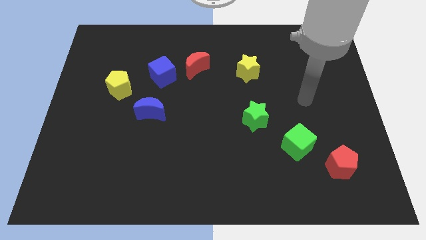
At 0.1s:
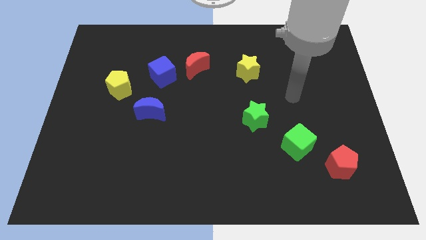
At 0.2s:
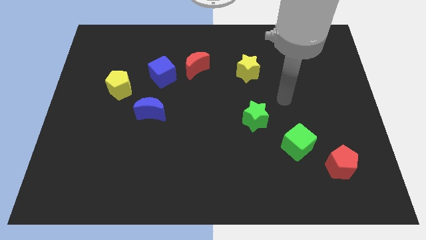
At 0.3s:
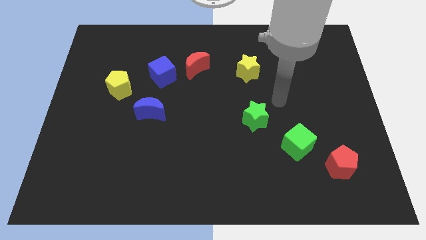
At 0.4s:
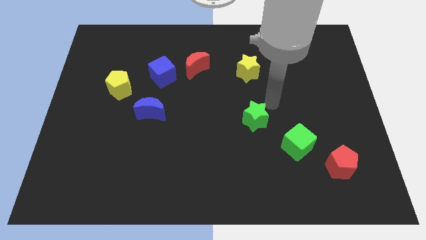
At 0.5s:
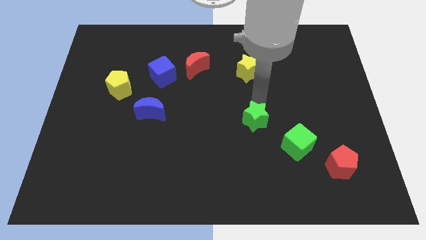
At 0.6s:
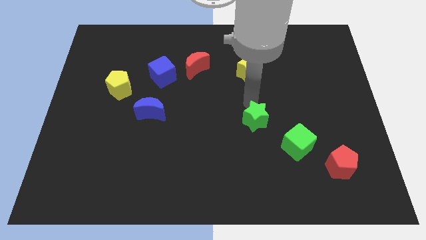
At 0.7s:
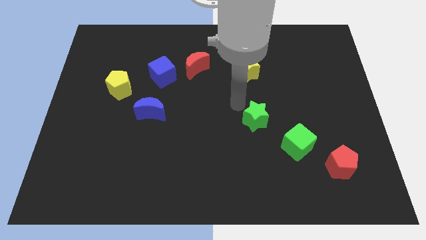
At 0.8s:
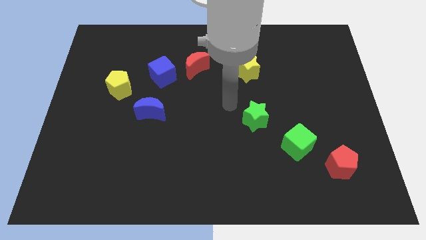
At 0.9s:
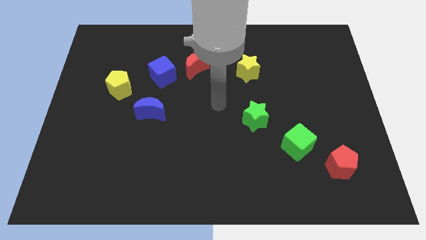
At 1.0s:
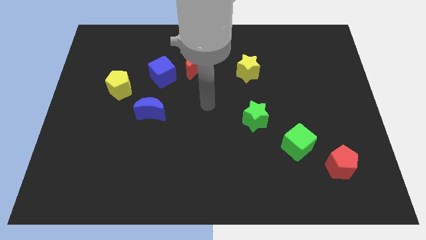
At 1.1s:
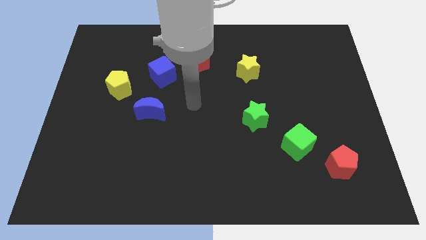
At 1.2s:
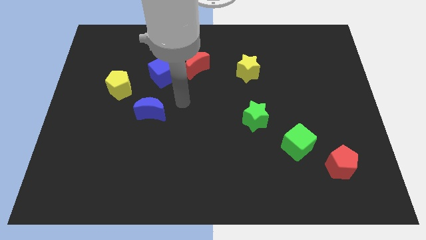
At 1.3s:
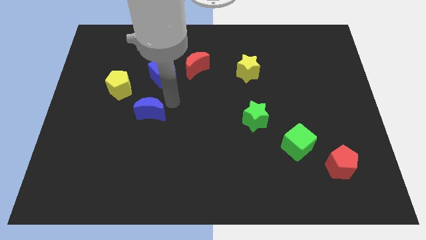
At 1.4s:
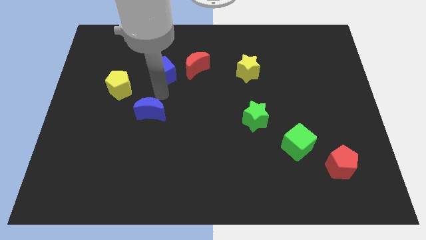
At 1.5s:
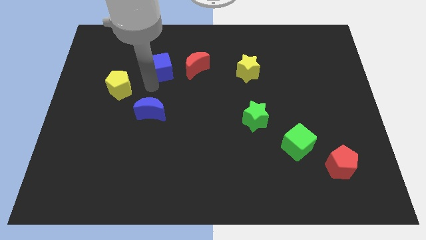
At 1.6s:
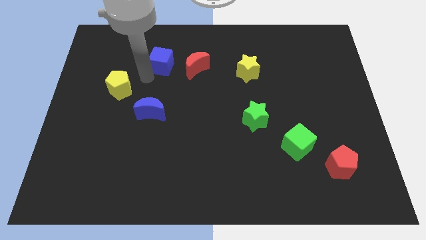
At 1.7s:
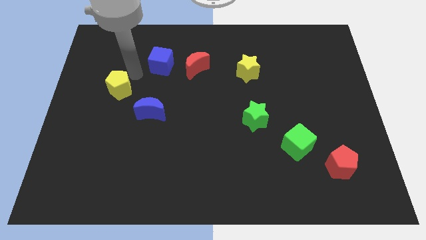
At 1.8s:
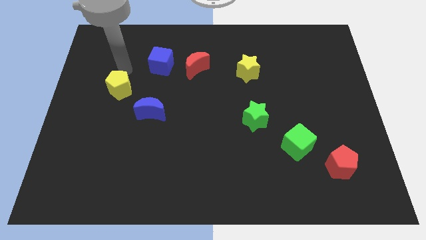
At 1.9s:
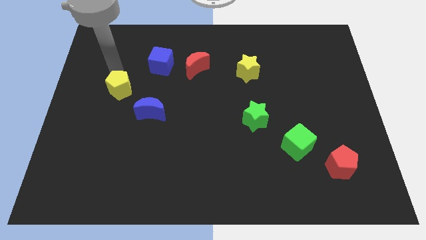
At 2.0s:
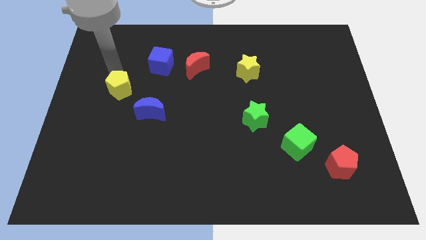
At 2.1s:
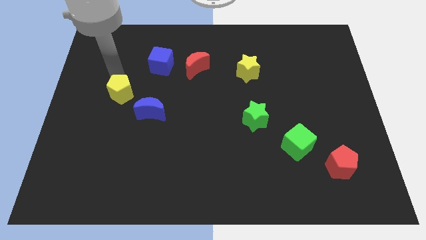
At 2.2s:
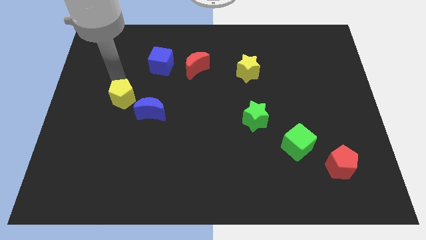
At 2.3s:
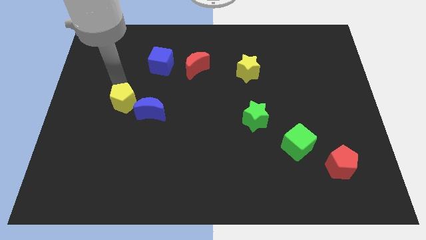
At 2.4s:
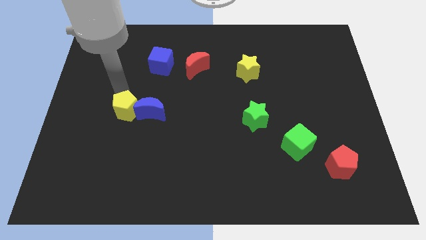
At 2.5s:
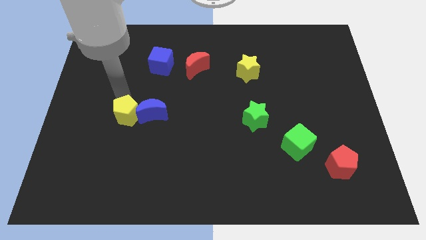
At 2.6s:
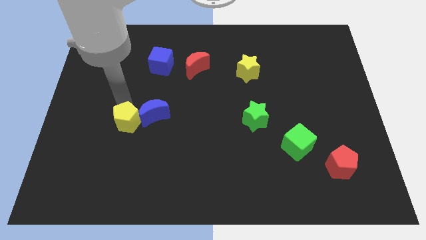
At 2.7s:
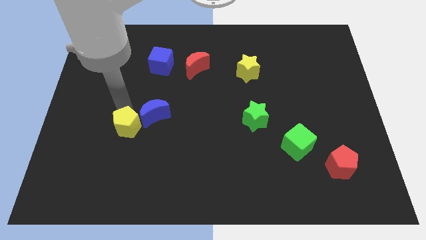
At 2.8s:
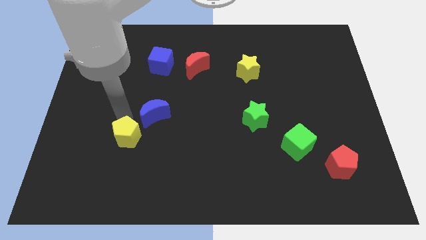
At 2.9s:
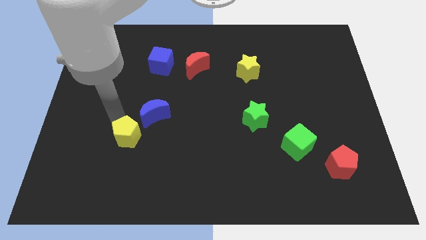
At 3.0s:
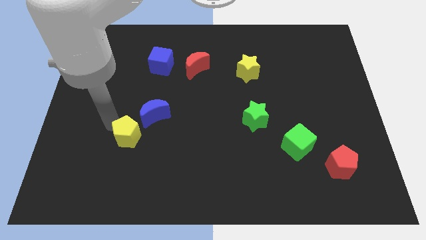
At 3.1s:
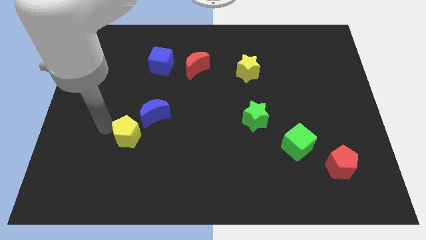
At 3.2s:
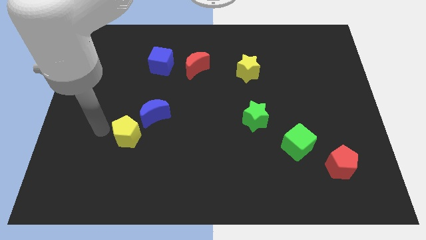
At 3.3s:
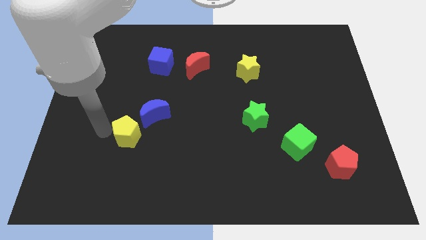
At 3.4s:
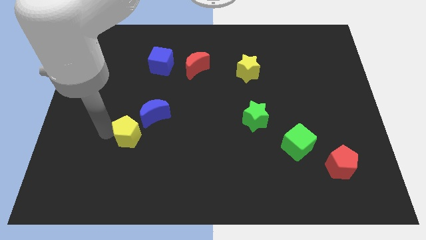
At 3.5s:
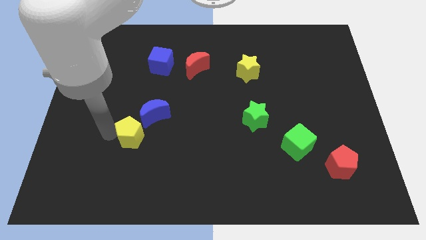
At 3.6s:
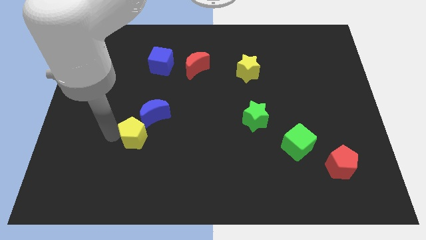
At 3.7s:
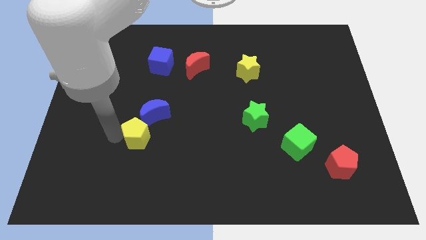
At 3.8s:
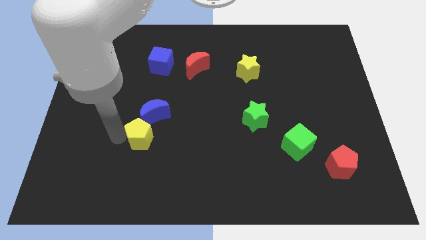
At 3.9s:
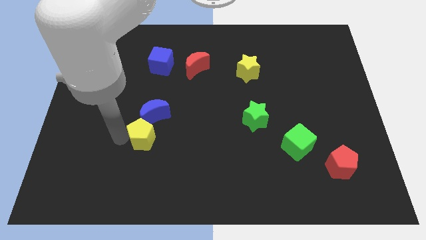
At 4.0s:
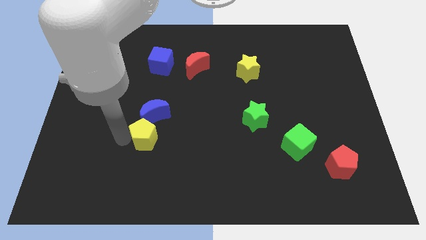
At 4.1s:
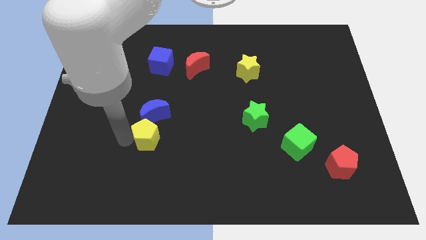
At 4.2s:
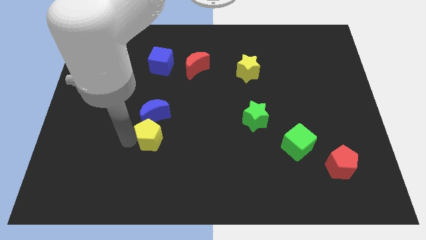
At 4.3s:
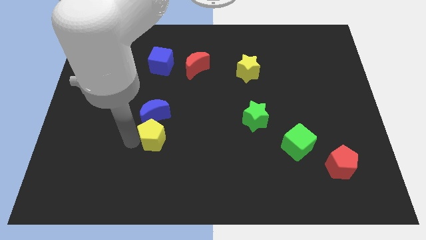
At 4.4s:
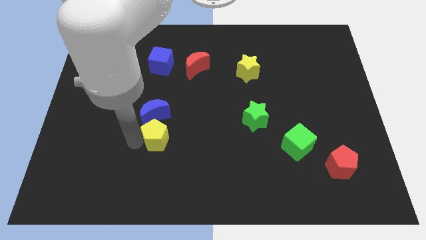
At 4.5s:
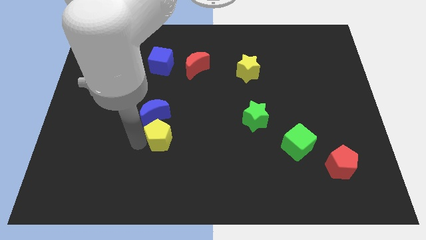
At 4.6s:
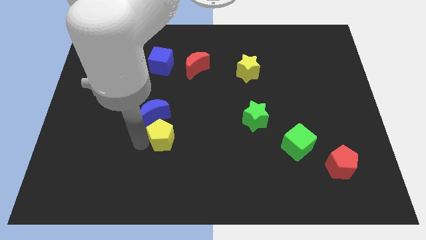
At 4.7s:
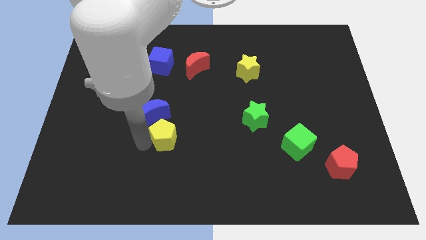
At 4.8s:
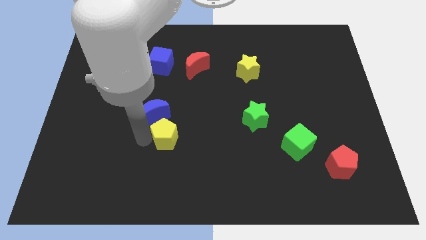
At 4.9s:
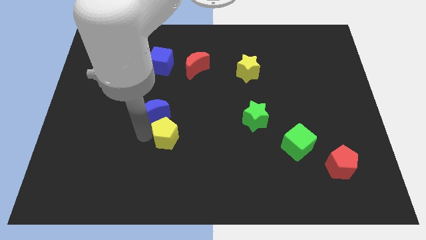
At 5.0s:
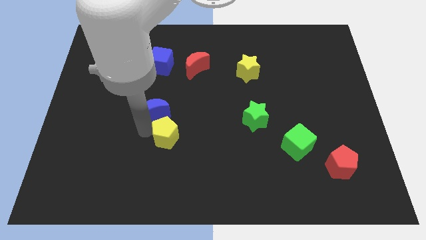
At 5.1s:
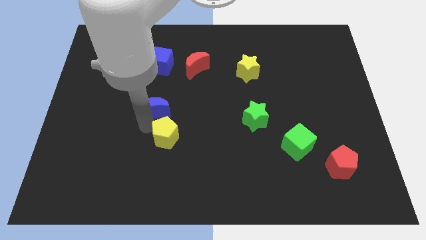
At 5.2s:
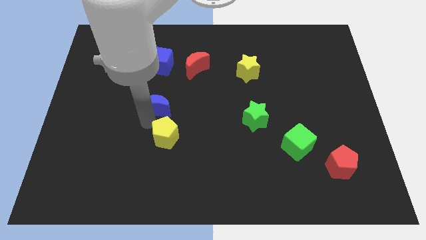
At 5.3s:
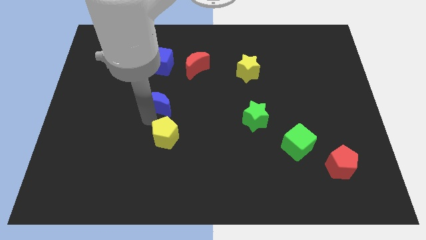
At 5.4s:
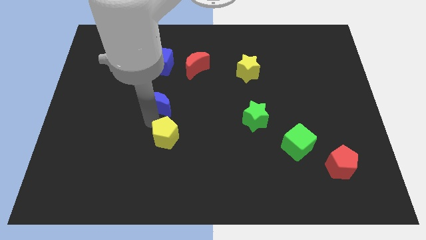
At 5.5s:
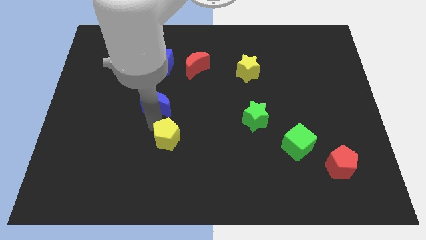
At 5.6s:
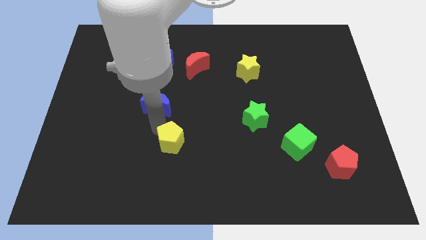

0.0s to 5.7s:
push the yellow pentagon down and to the right diagonally

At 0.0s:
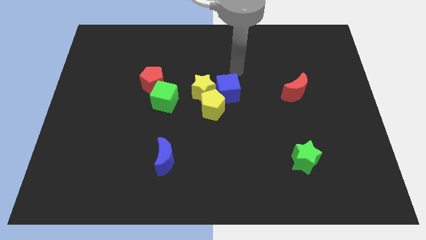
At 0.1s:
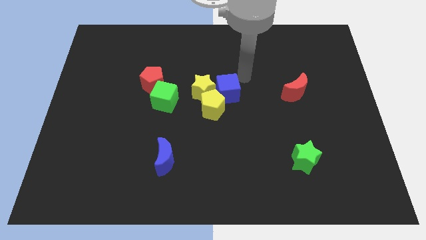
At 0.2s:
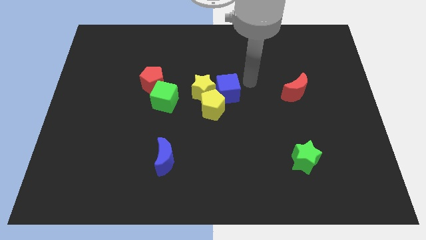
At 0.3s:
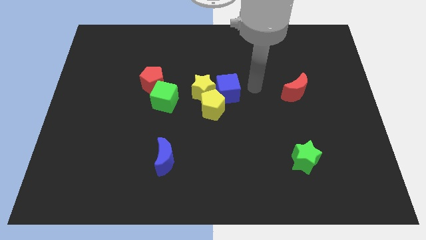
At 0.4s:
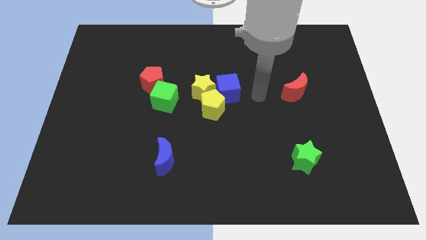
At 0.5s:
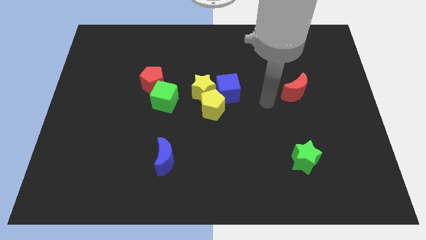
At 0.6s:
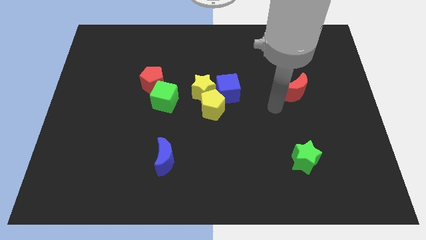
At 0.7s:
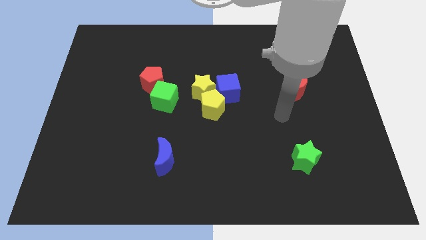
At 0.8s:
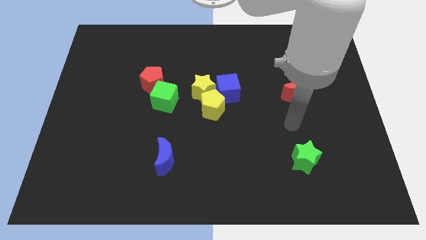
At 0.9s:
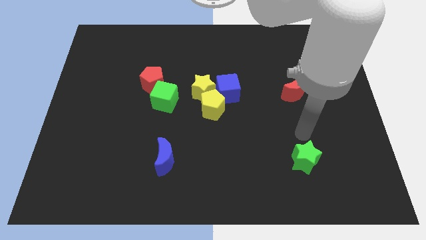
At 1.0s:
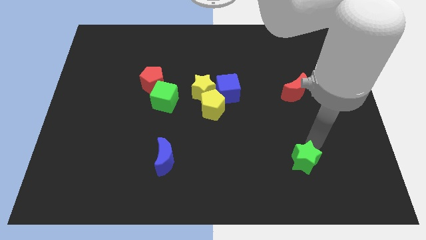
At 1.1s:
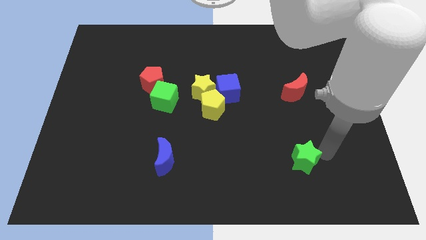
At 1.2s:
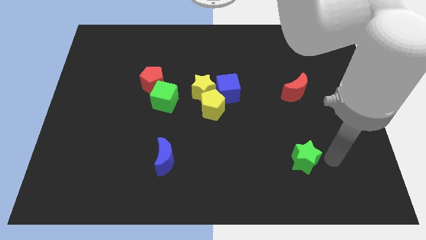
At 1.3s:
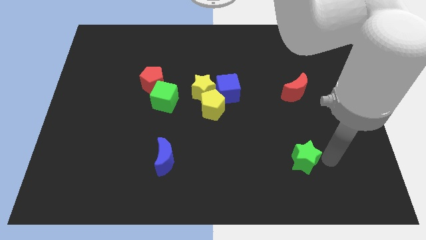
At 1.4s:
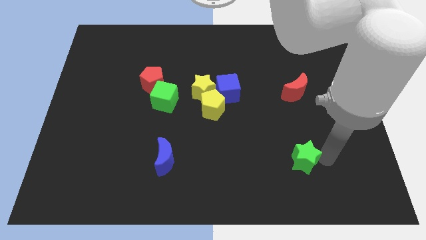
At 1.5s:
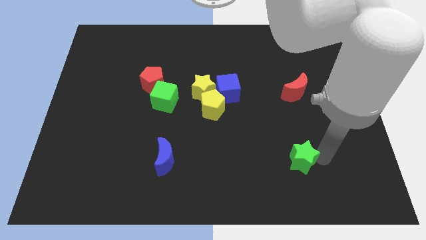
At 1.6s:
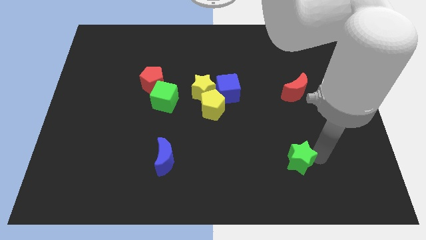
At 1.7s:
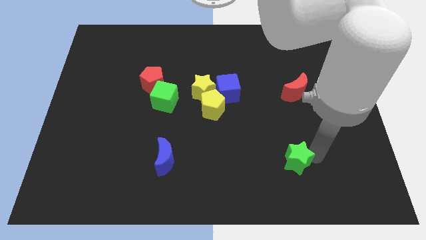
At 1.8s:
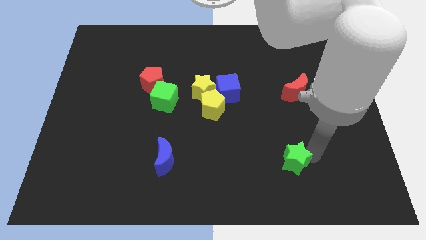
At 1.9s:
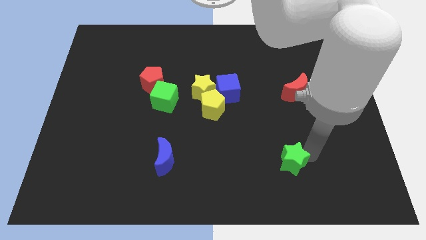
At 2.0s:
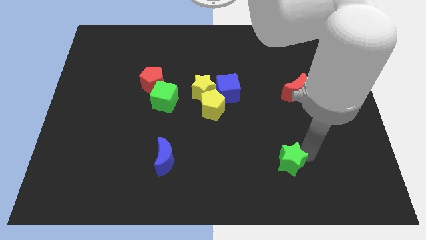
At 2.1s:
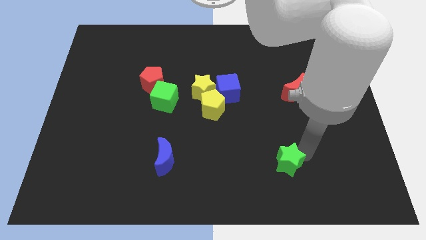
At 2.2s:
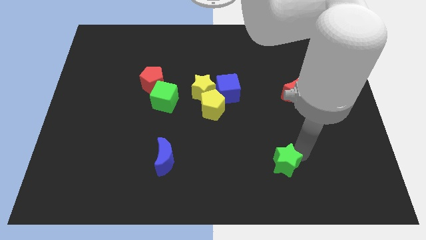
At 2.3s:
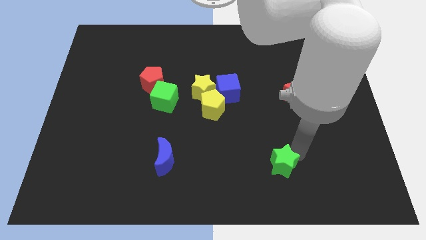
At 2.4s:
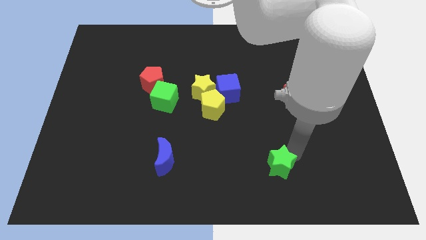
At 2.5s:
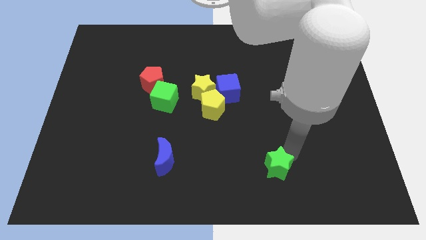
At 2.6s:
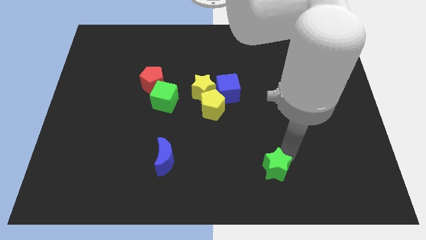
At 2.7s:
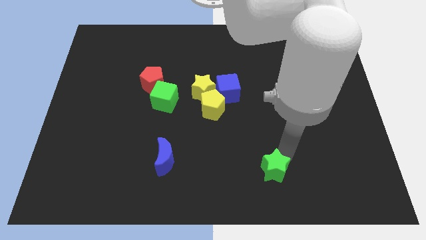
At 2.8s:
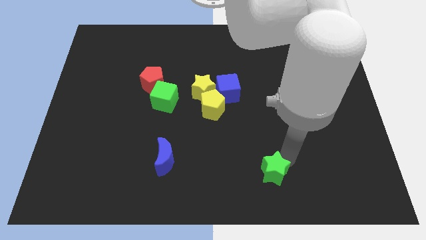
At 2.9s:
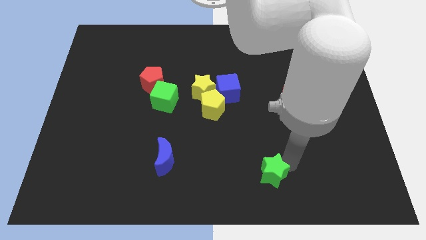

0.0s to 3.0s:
move the green star a little to the left
